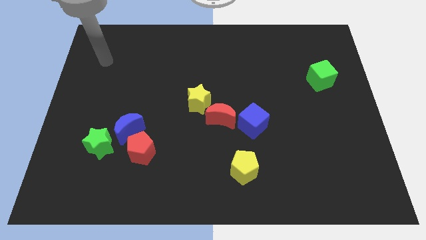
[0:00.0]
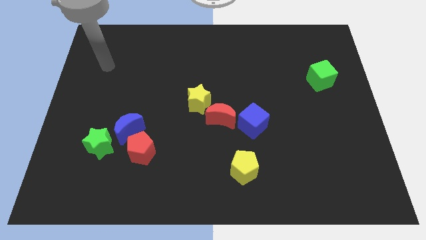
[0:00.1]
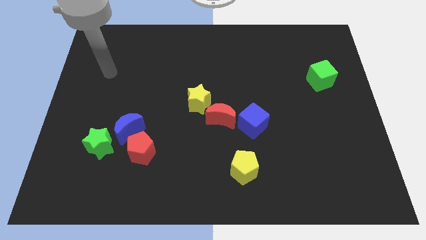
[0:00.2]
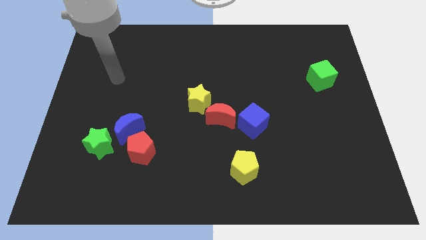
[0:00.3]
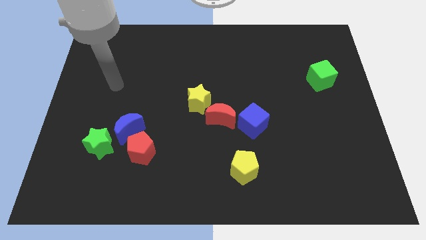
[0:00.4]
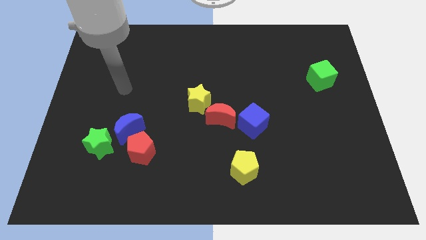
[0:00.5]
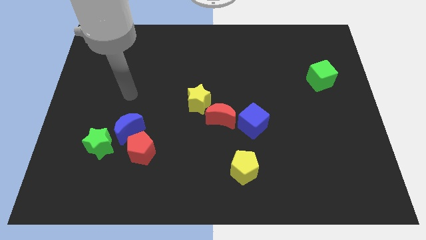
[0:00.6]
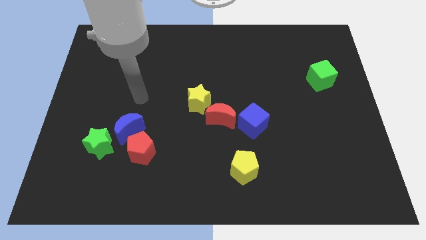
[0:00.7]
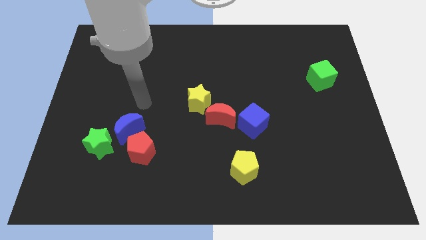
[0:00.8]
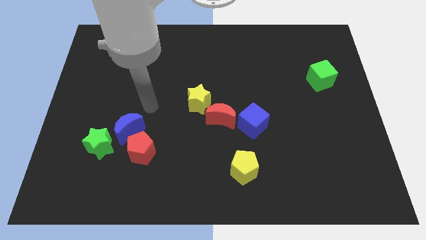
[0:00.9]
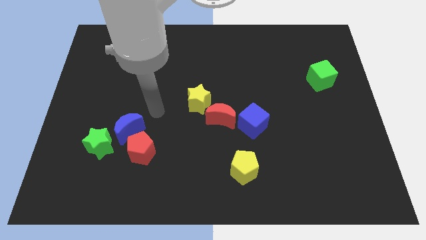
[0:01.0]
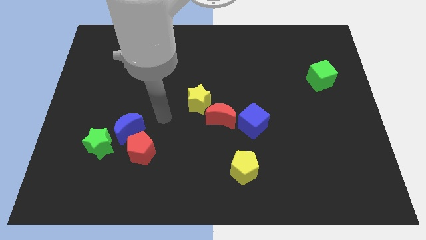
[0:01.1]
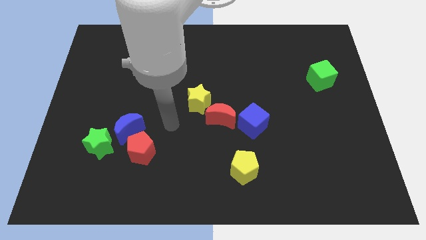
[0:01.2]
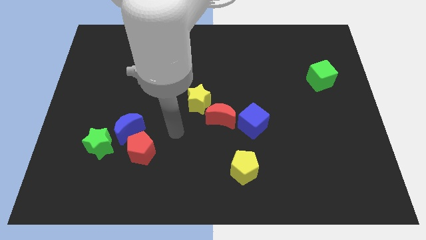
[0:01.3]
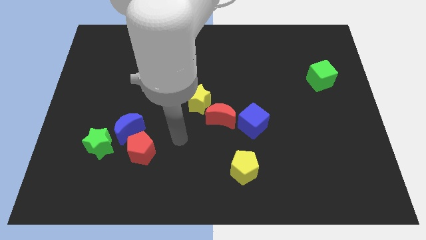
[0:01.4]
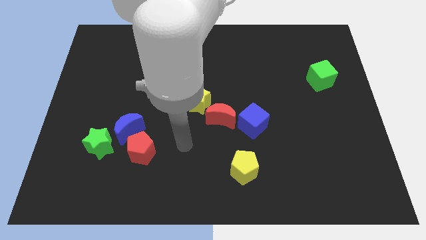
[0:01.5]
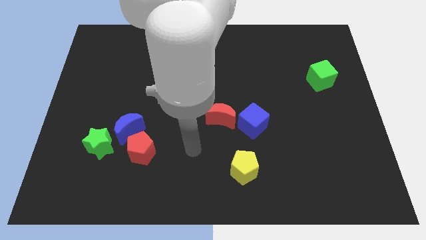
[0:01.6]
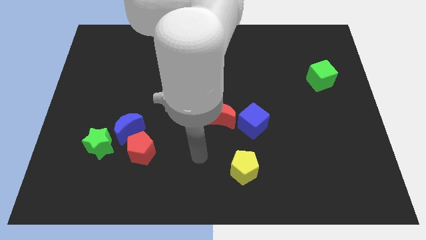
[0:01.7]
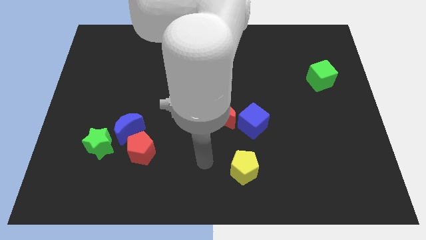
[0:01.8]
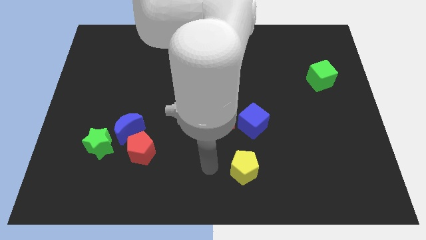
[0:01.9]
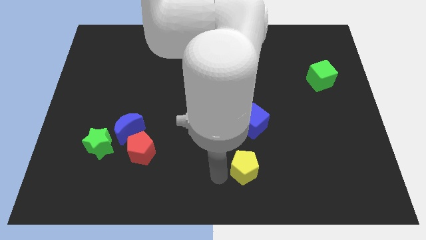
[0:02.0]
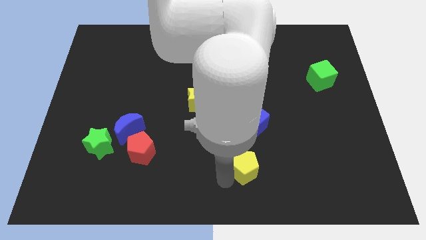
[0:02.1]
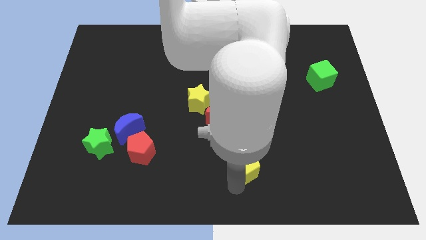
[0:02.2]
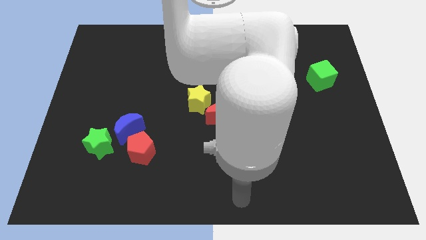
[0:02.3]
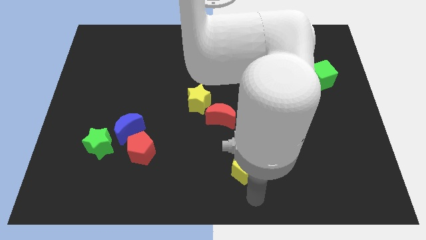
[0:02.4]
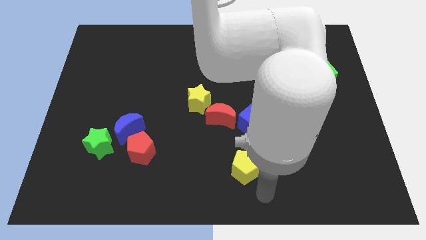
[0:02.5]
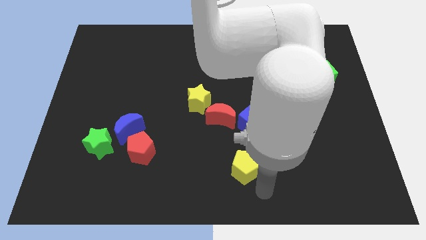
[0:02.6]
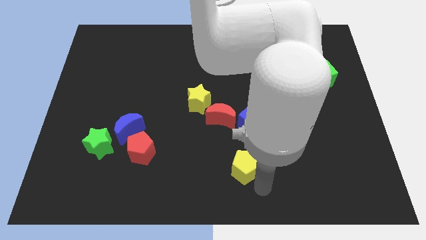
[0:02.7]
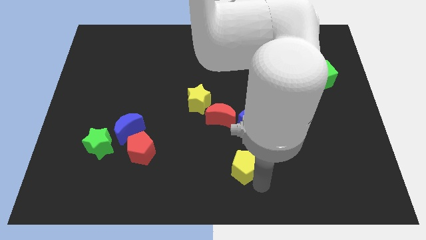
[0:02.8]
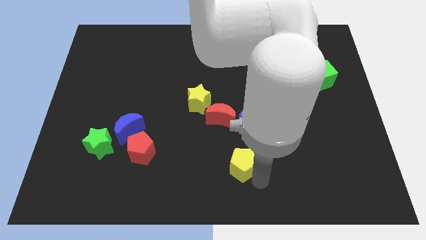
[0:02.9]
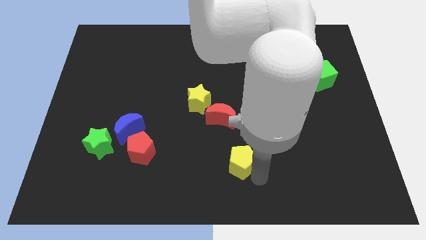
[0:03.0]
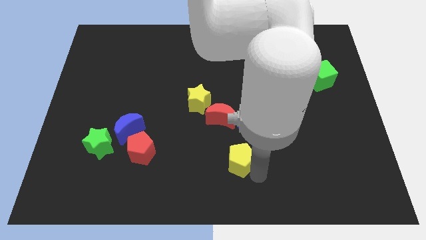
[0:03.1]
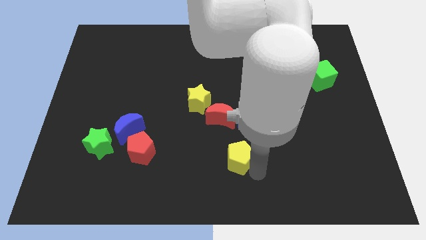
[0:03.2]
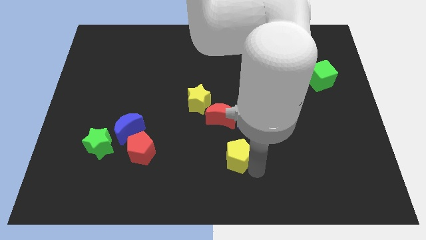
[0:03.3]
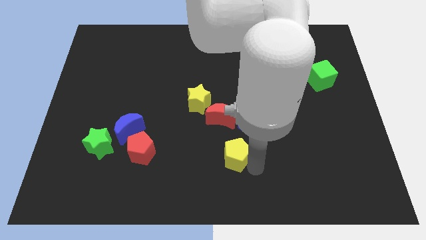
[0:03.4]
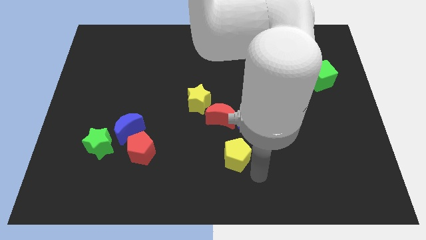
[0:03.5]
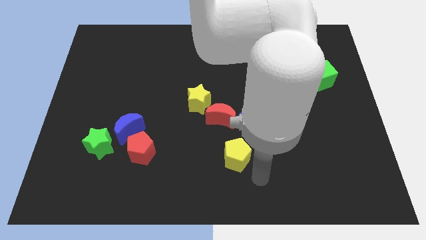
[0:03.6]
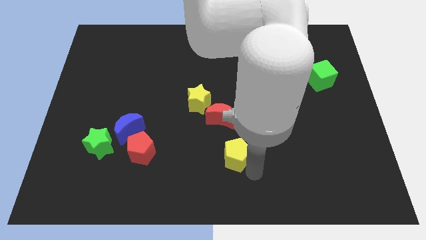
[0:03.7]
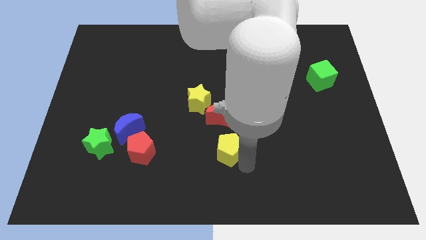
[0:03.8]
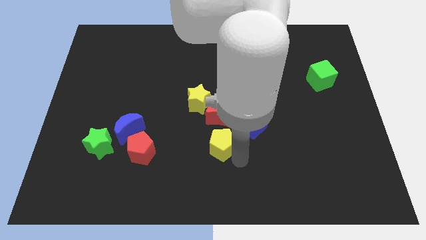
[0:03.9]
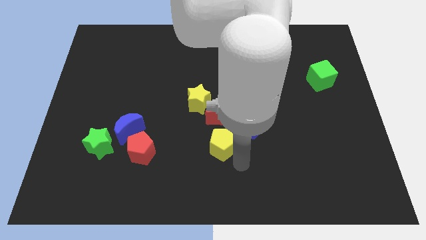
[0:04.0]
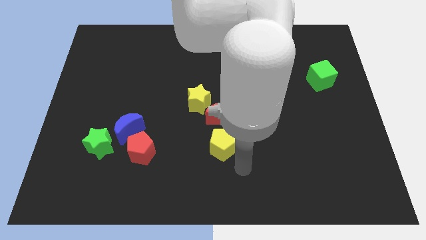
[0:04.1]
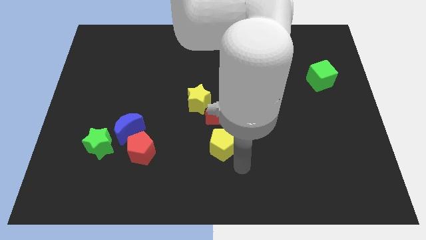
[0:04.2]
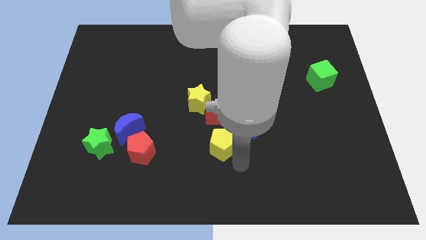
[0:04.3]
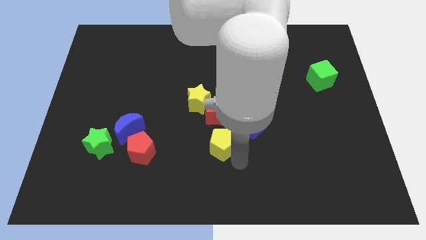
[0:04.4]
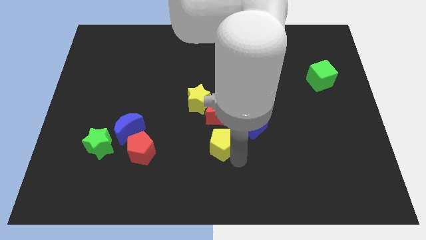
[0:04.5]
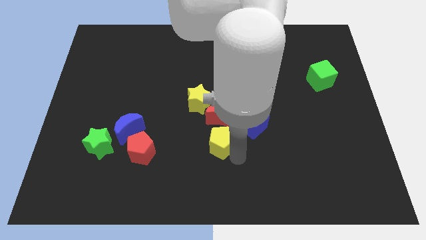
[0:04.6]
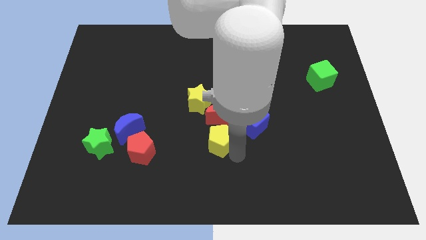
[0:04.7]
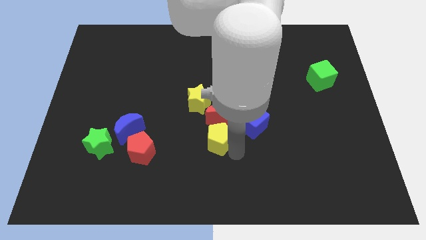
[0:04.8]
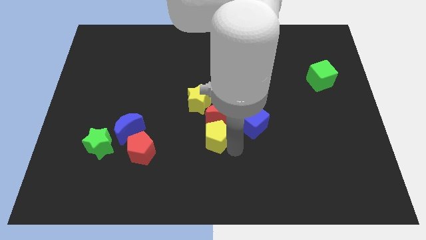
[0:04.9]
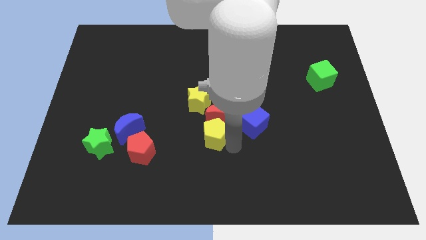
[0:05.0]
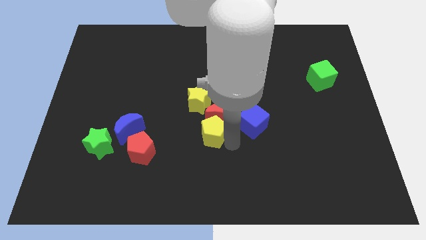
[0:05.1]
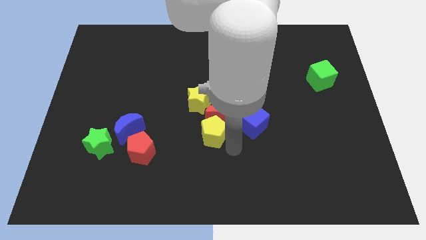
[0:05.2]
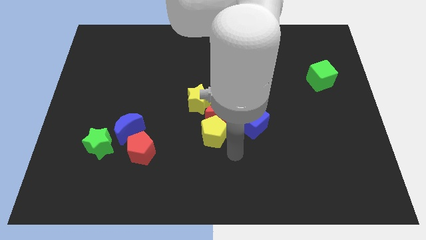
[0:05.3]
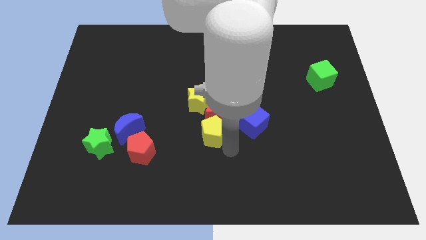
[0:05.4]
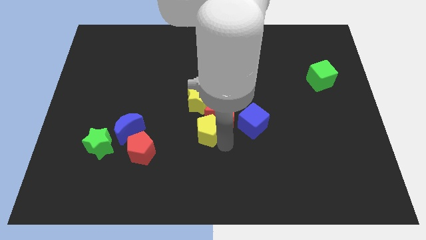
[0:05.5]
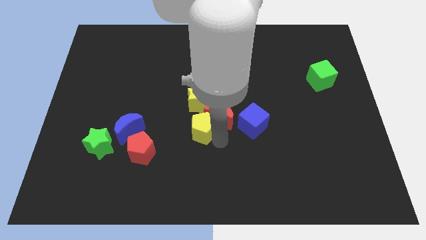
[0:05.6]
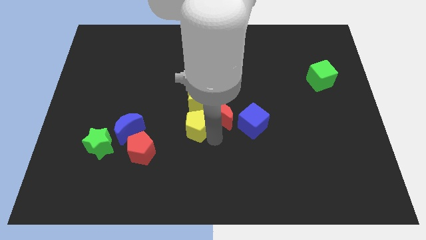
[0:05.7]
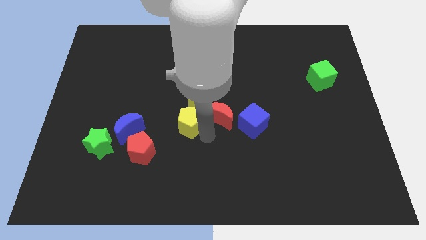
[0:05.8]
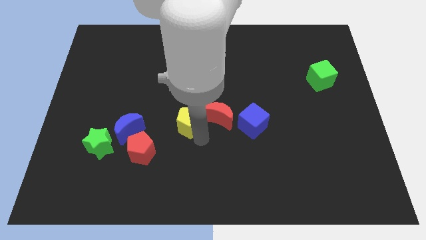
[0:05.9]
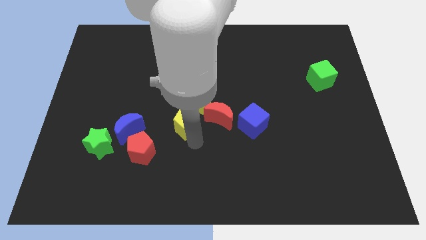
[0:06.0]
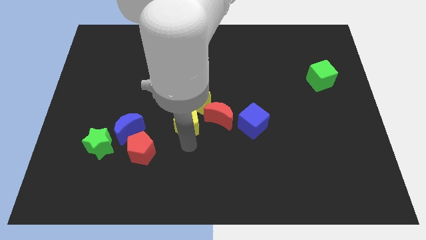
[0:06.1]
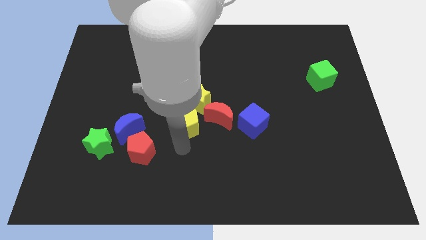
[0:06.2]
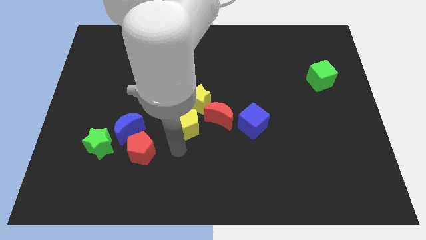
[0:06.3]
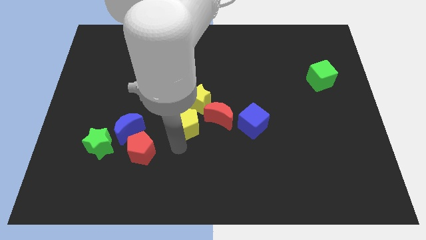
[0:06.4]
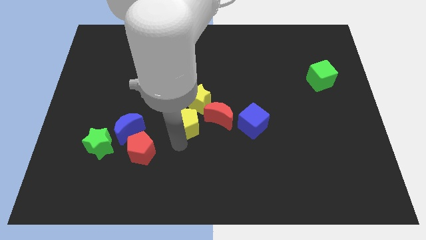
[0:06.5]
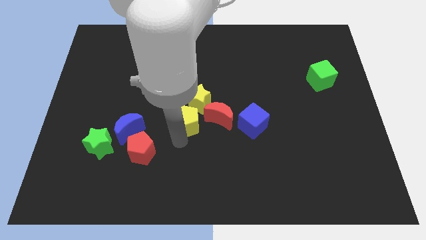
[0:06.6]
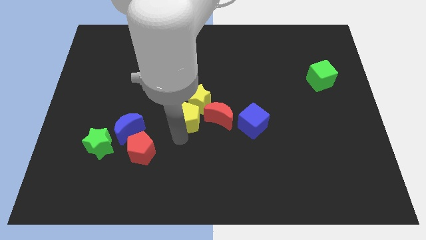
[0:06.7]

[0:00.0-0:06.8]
slide the yellow pentagon next to the yellow star
